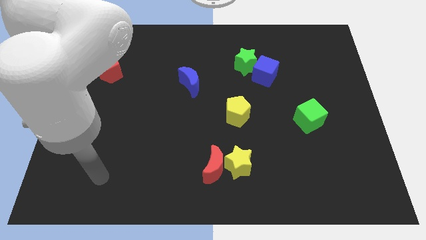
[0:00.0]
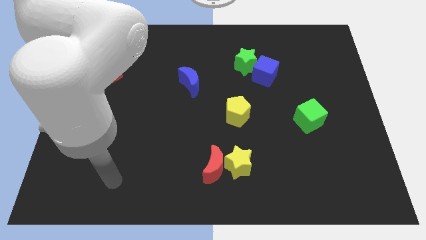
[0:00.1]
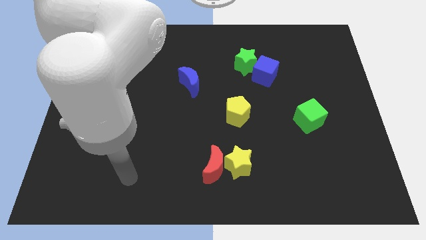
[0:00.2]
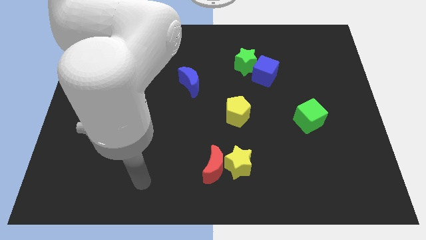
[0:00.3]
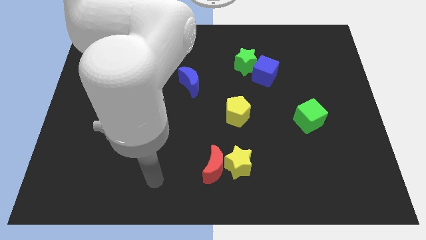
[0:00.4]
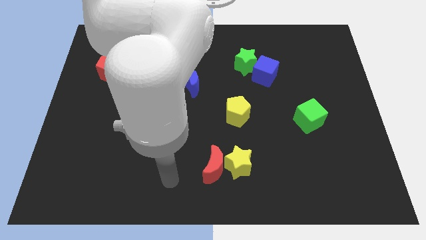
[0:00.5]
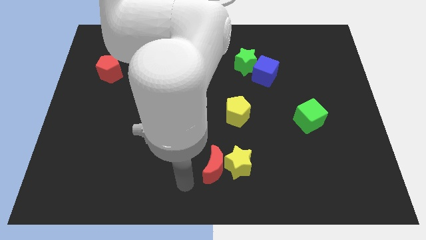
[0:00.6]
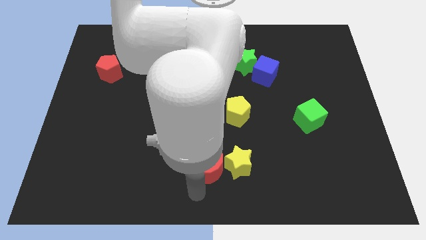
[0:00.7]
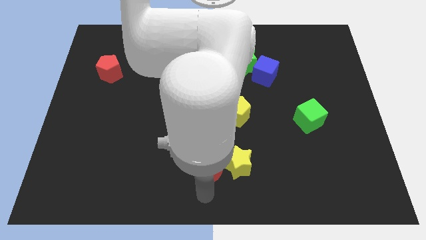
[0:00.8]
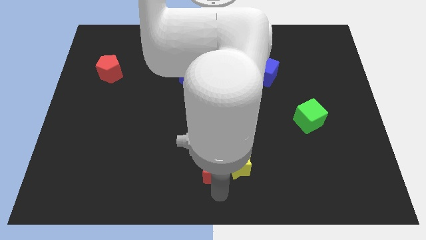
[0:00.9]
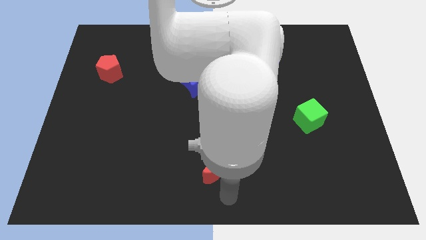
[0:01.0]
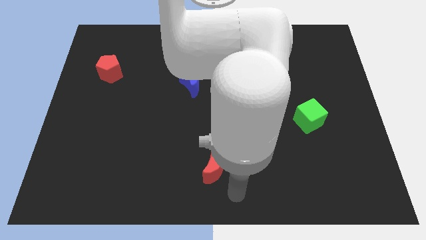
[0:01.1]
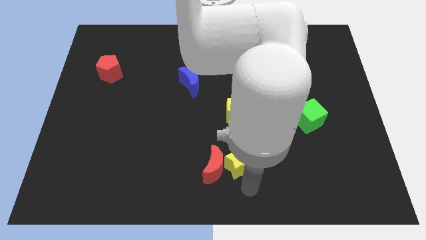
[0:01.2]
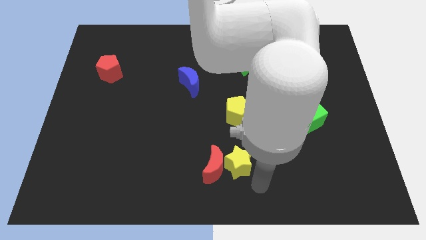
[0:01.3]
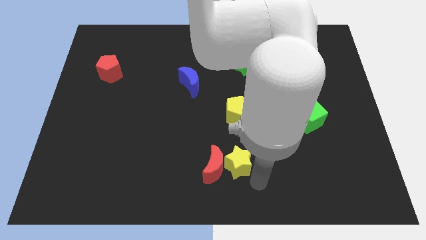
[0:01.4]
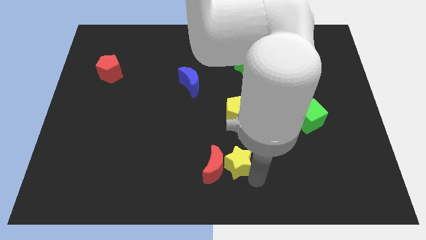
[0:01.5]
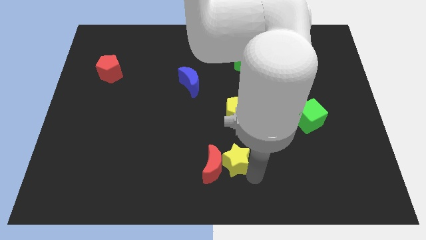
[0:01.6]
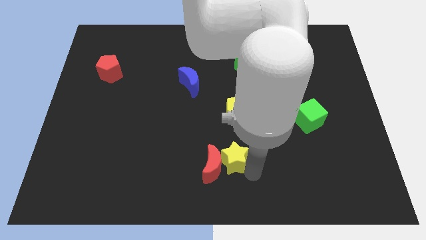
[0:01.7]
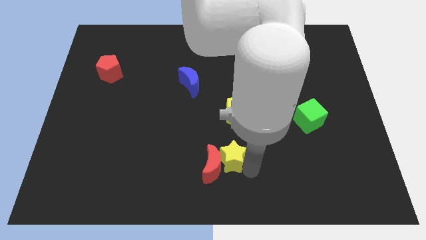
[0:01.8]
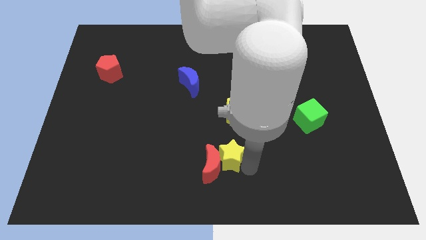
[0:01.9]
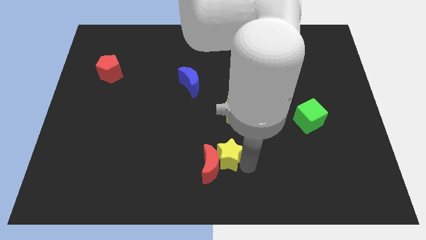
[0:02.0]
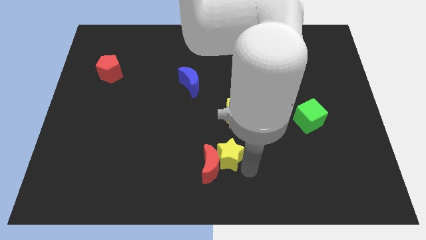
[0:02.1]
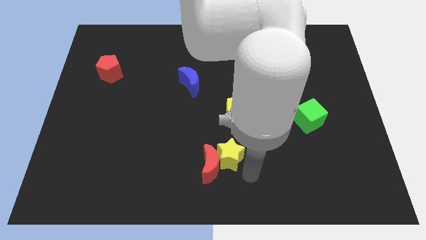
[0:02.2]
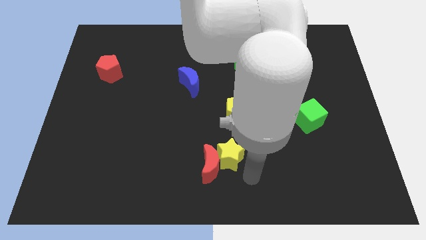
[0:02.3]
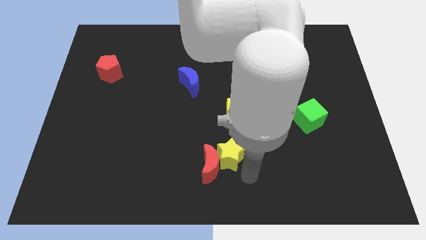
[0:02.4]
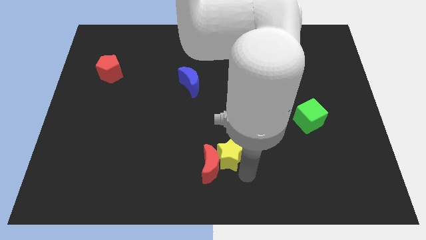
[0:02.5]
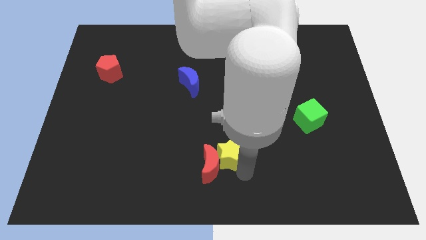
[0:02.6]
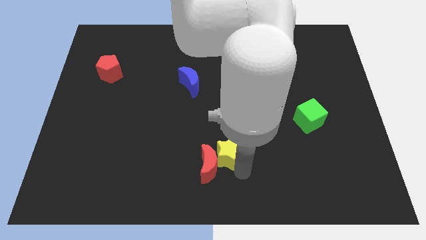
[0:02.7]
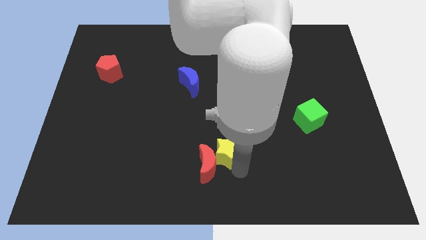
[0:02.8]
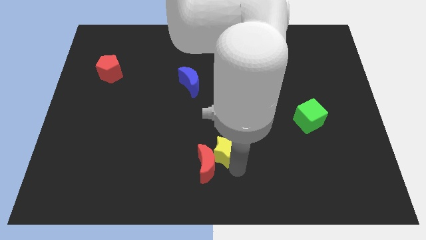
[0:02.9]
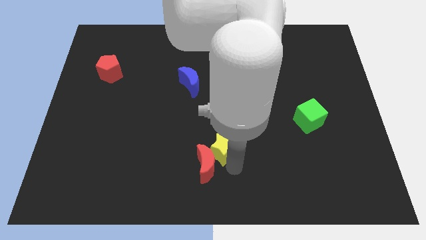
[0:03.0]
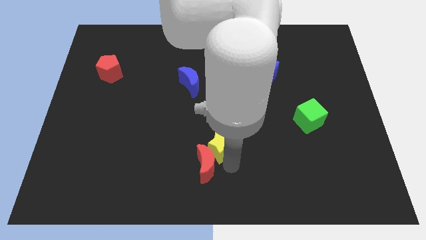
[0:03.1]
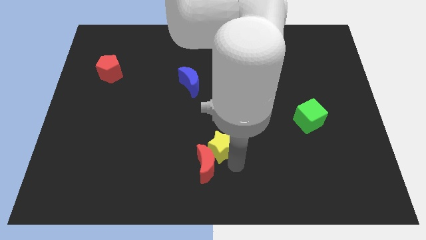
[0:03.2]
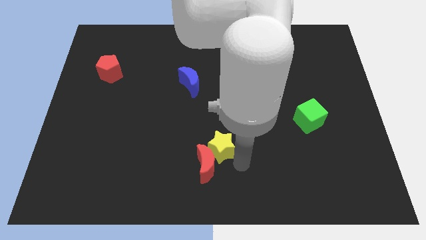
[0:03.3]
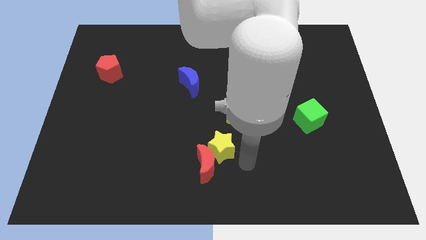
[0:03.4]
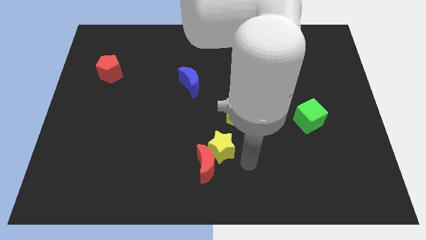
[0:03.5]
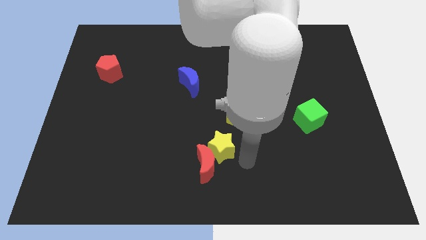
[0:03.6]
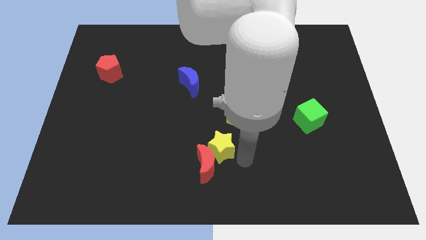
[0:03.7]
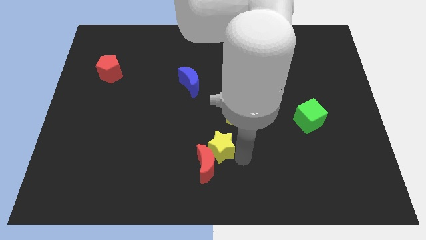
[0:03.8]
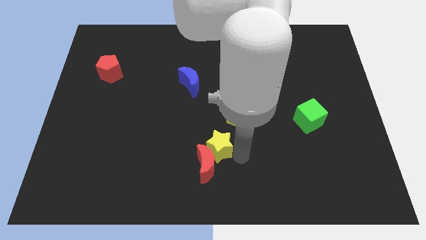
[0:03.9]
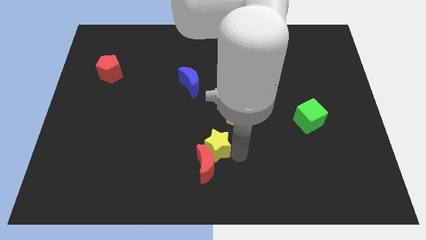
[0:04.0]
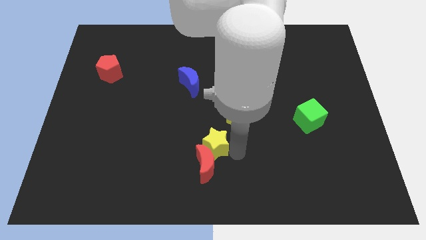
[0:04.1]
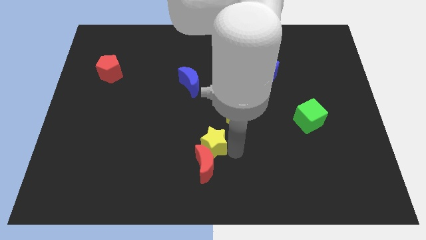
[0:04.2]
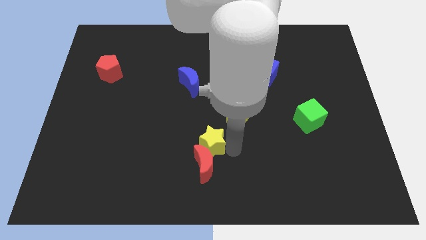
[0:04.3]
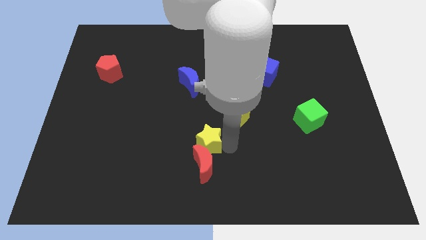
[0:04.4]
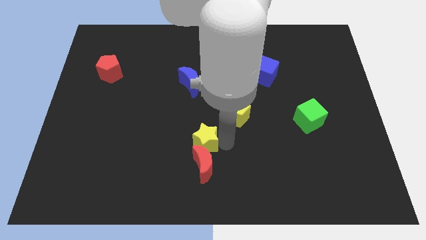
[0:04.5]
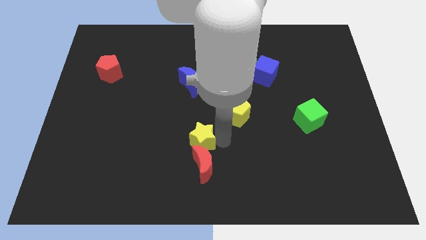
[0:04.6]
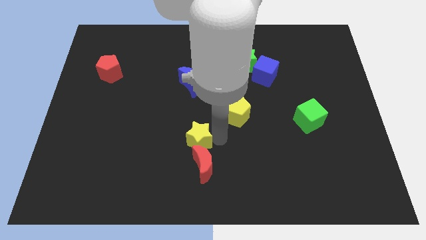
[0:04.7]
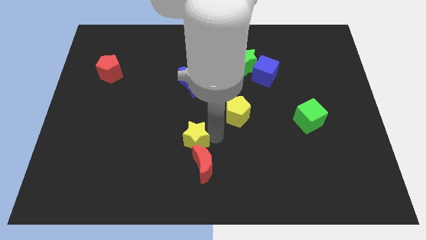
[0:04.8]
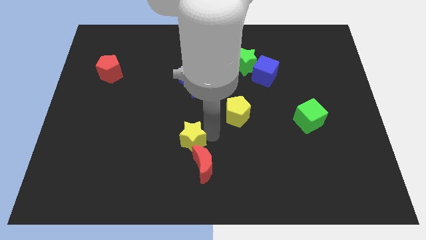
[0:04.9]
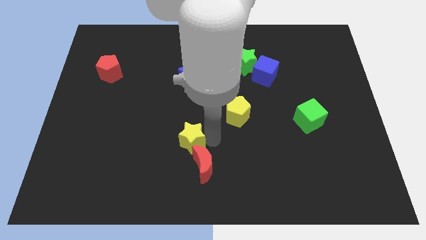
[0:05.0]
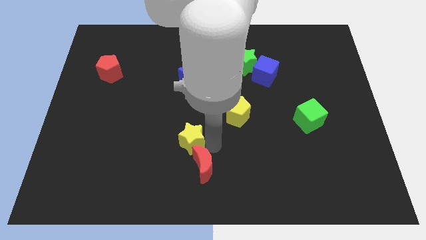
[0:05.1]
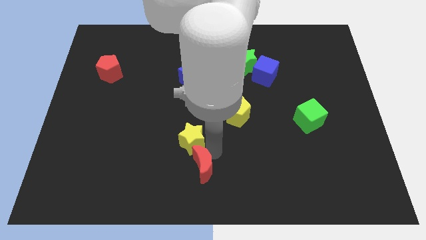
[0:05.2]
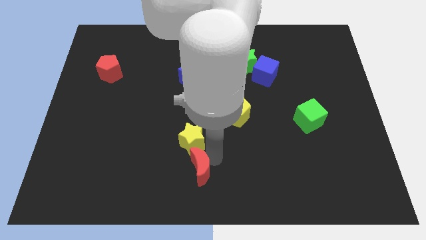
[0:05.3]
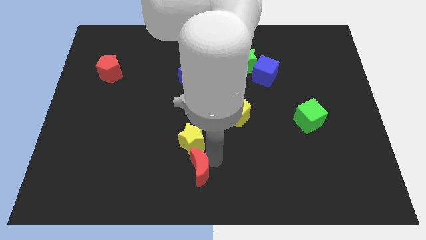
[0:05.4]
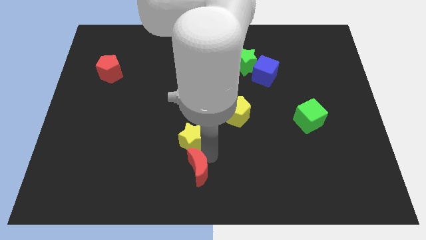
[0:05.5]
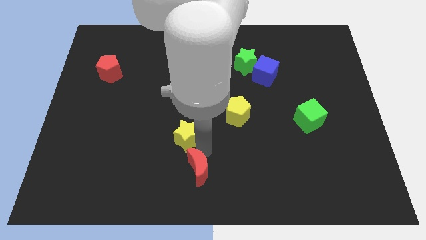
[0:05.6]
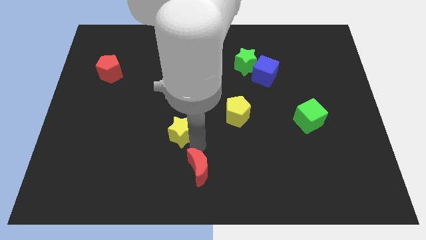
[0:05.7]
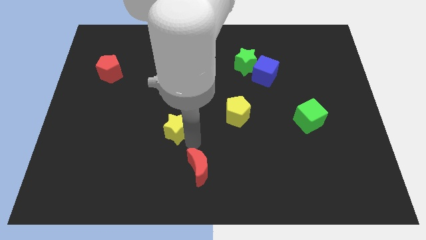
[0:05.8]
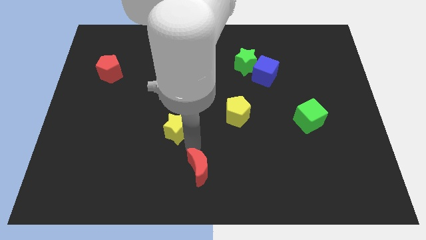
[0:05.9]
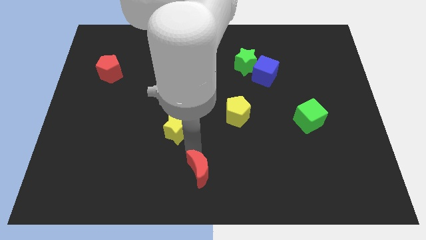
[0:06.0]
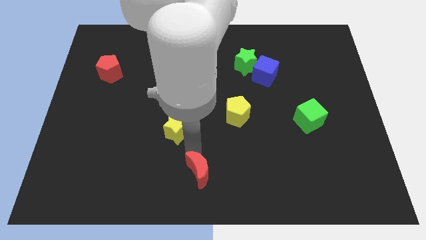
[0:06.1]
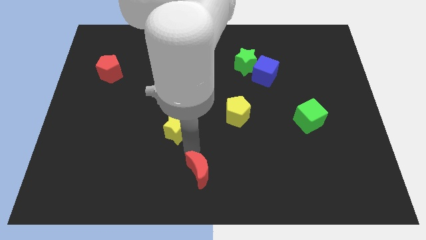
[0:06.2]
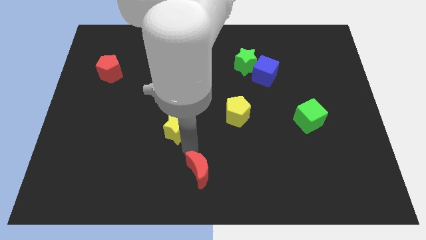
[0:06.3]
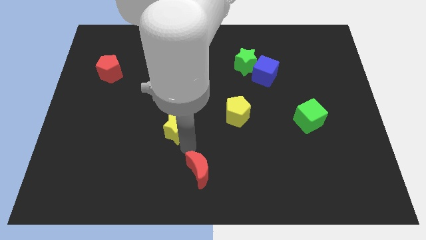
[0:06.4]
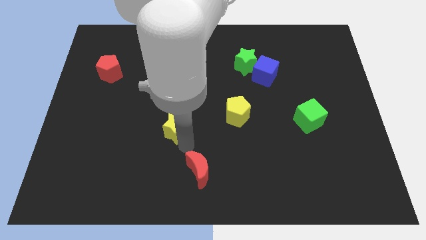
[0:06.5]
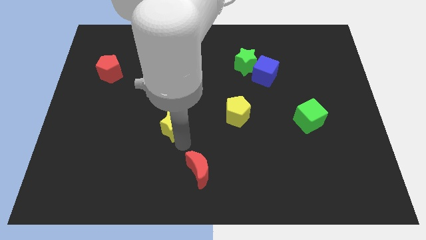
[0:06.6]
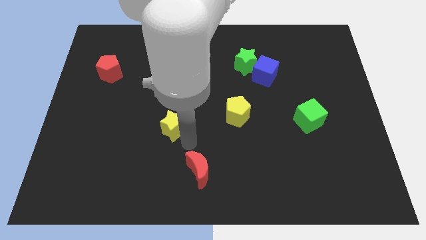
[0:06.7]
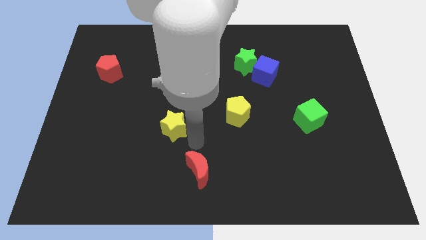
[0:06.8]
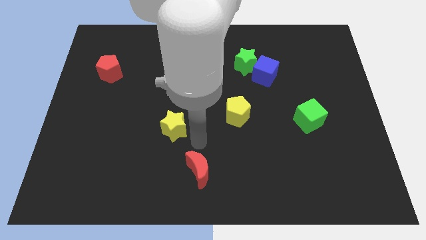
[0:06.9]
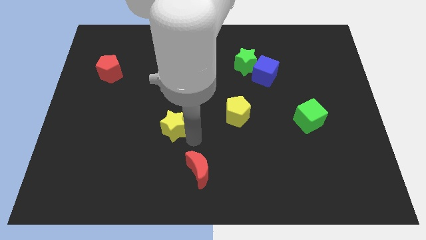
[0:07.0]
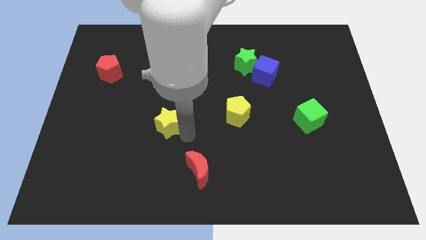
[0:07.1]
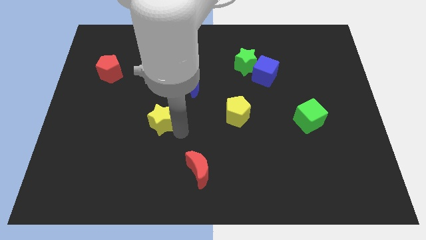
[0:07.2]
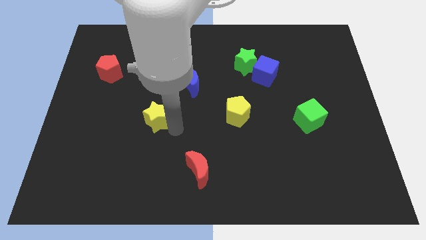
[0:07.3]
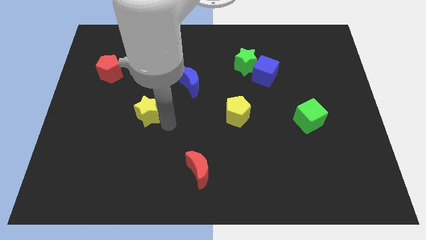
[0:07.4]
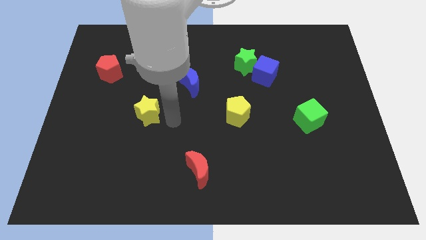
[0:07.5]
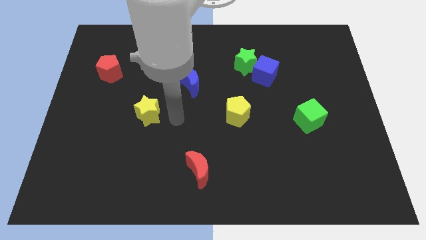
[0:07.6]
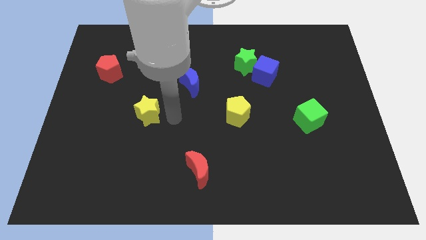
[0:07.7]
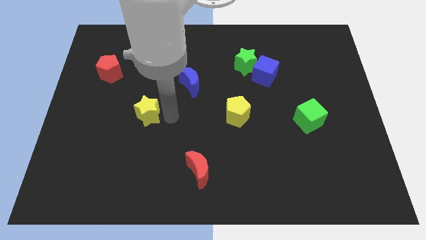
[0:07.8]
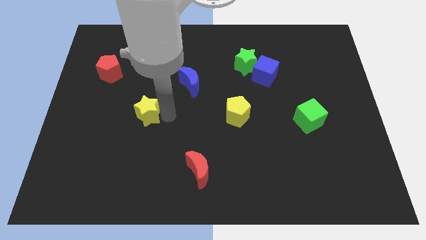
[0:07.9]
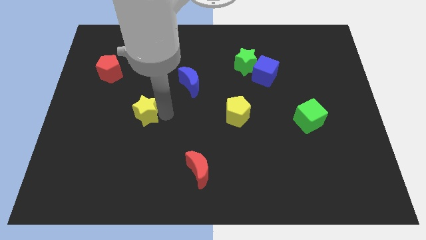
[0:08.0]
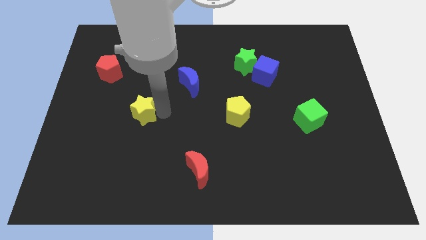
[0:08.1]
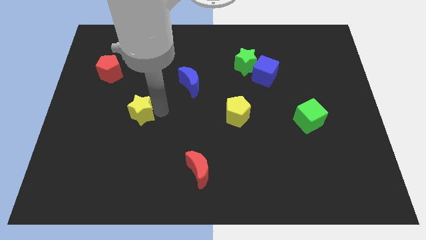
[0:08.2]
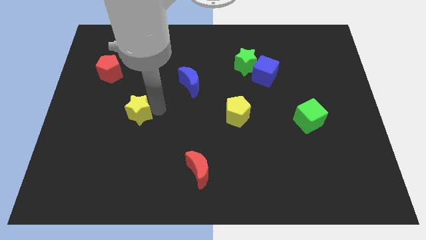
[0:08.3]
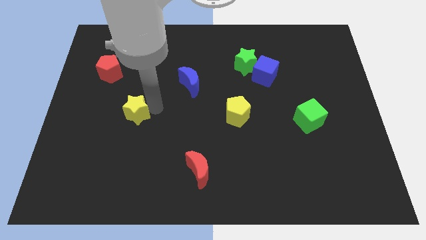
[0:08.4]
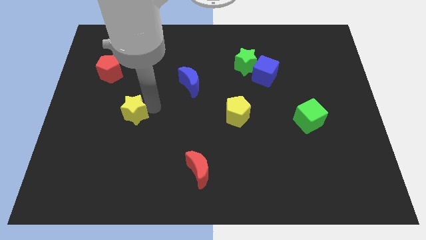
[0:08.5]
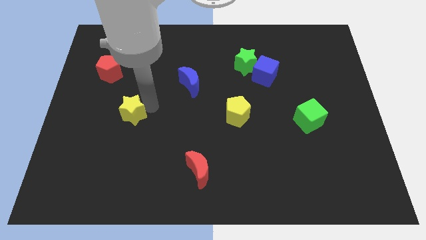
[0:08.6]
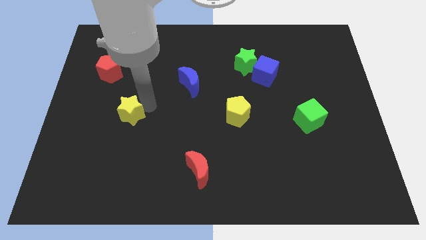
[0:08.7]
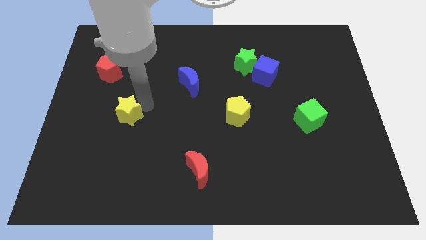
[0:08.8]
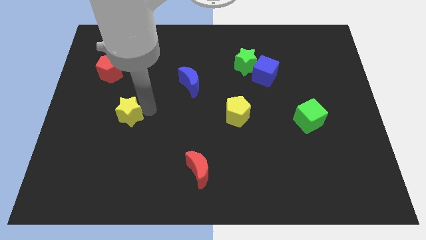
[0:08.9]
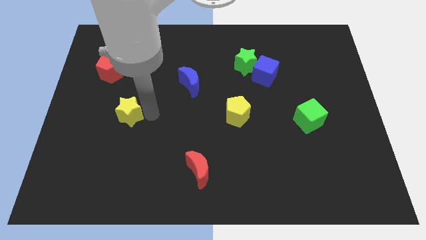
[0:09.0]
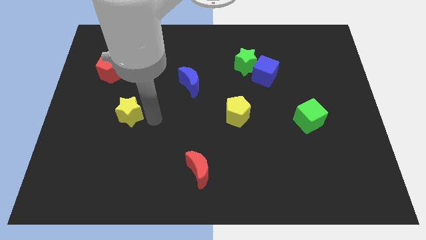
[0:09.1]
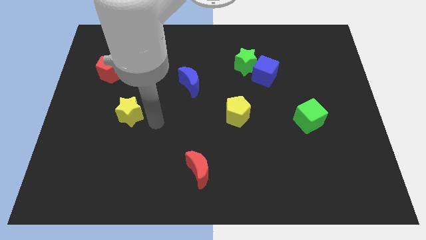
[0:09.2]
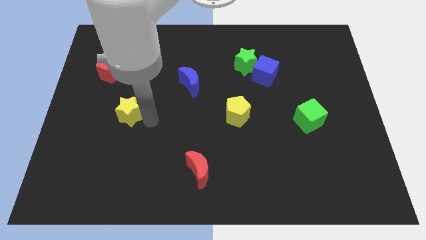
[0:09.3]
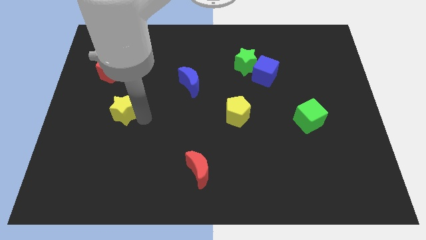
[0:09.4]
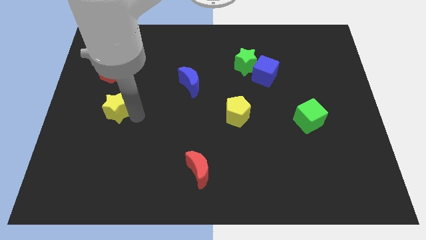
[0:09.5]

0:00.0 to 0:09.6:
push the yellow star to the bottom of the red pentagon
